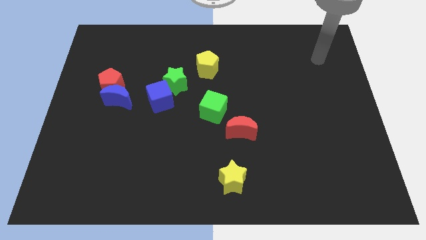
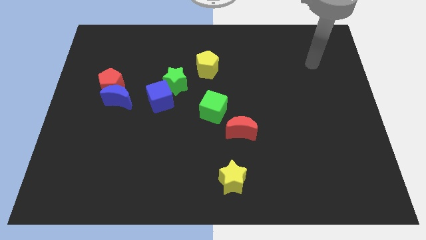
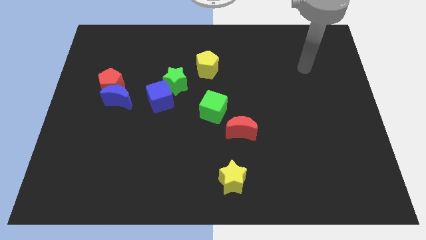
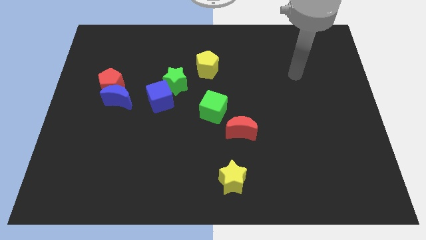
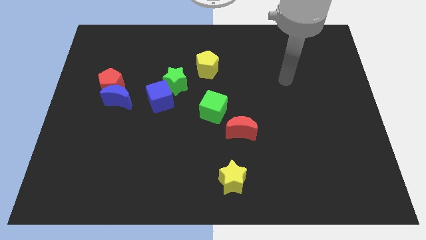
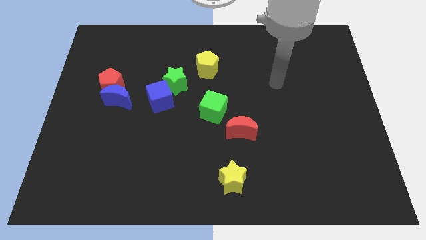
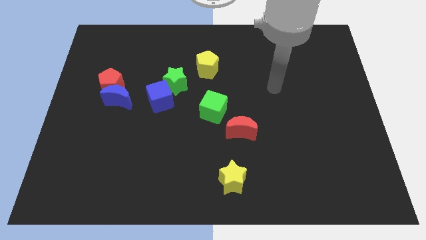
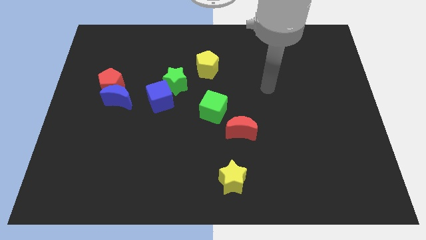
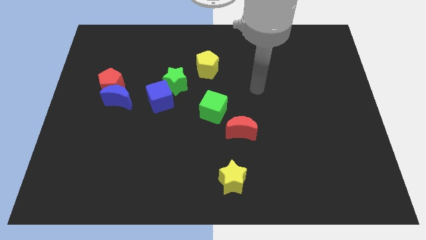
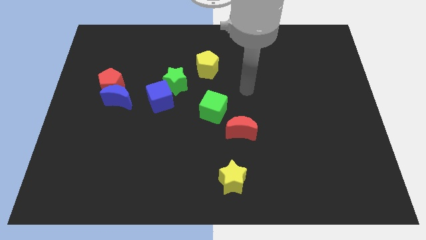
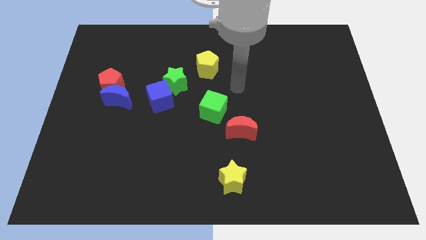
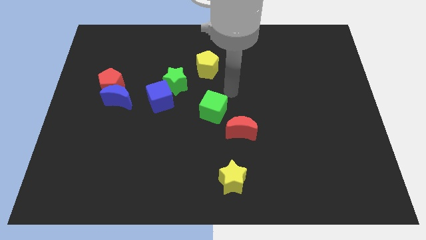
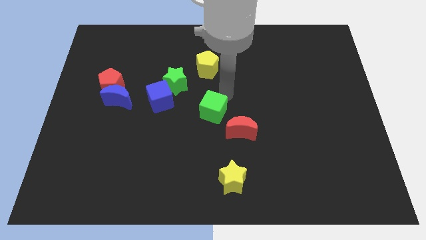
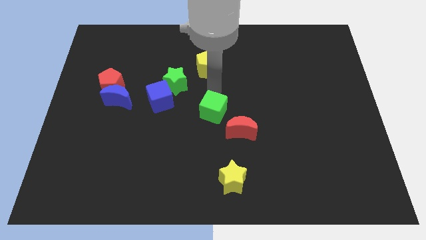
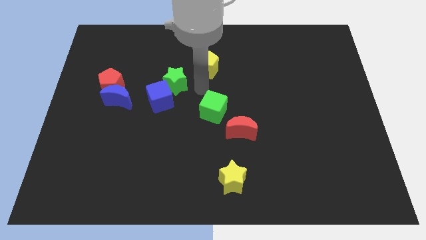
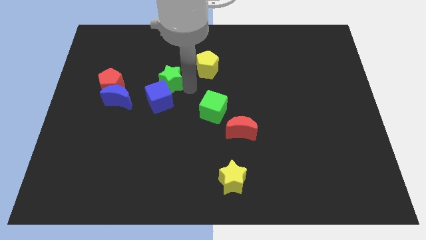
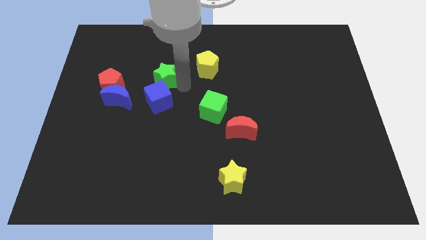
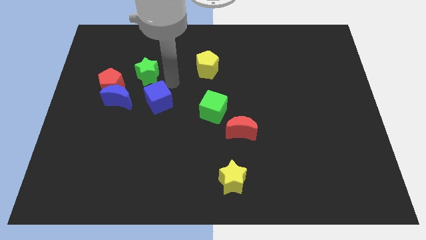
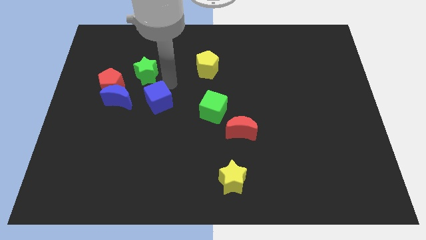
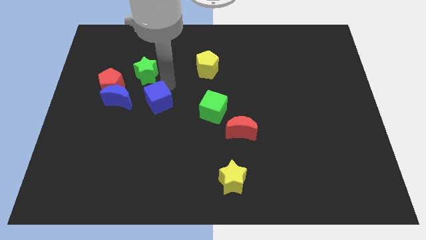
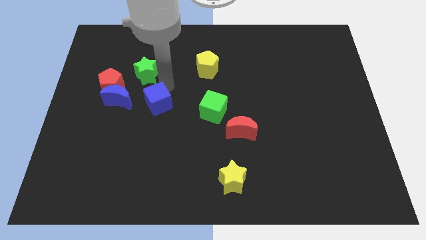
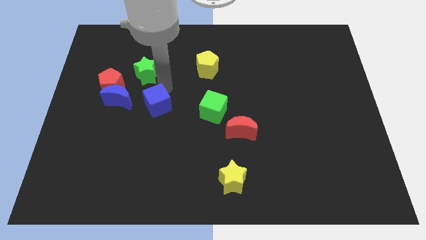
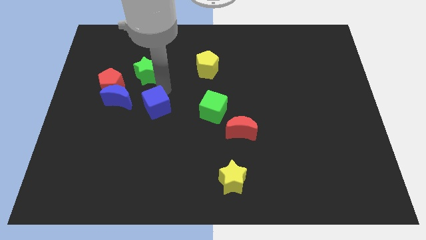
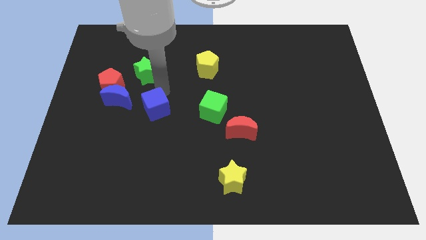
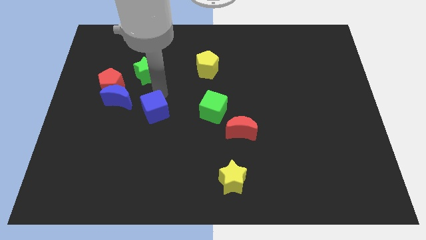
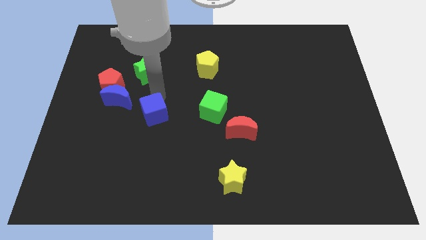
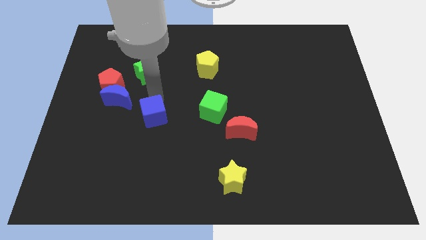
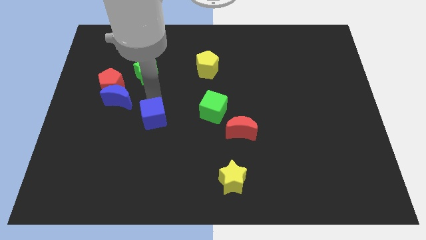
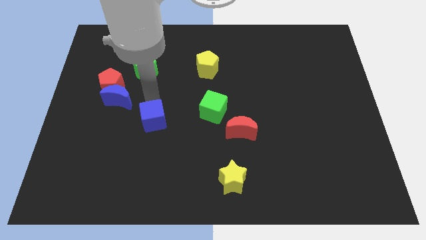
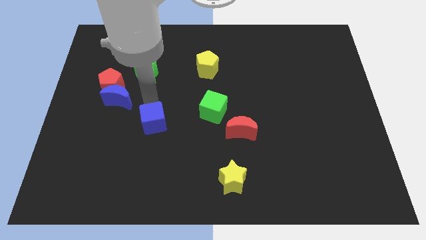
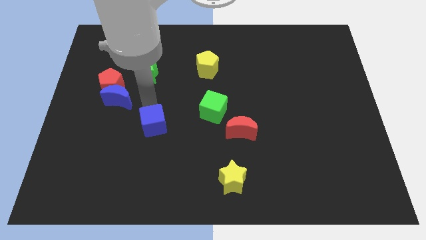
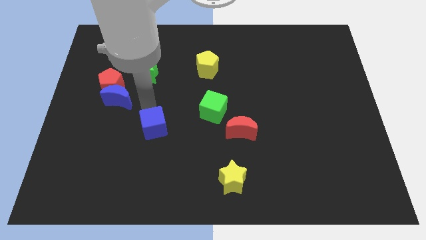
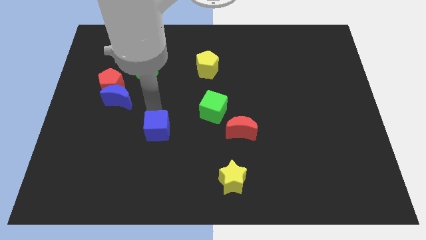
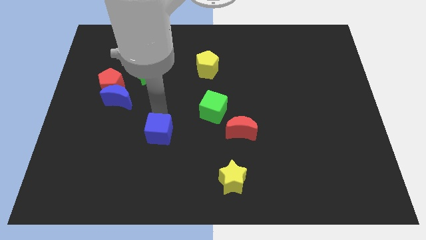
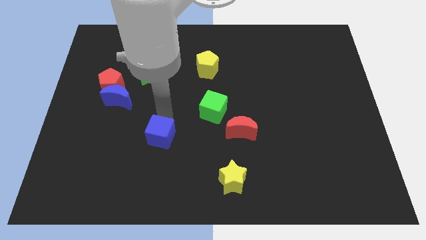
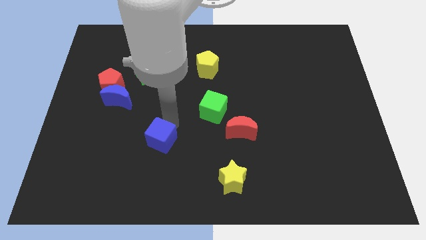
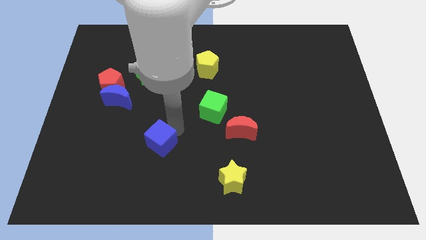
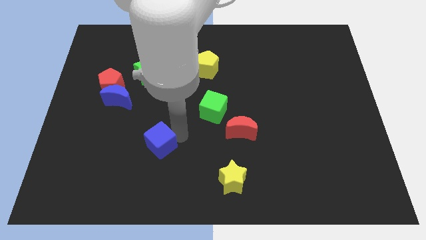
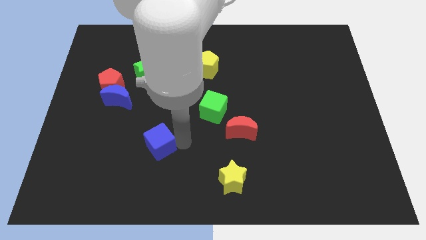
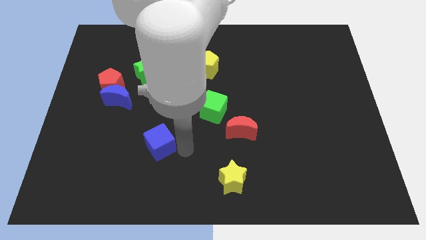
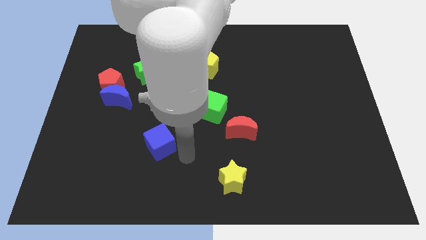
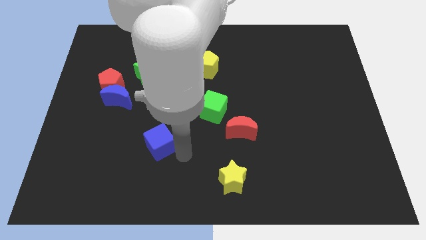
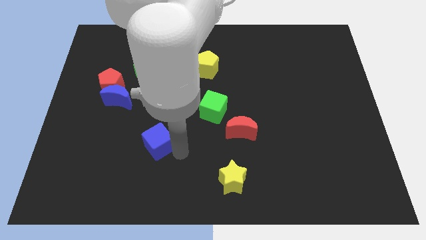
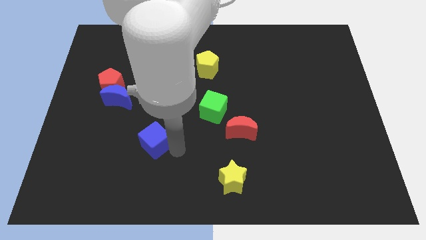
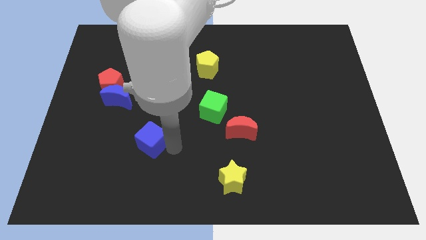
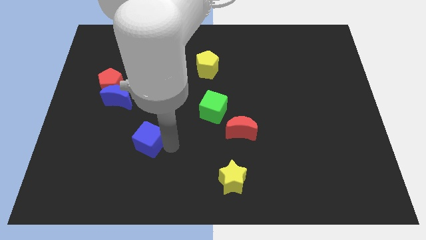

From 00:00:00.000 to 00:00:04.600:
slightly move the blue cube downwards and to the left diagonally

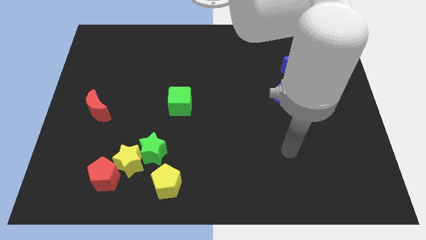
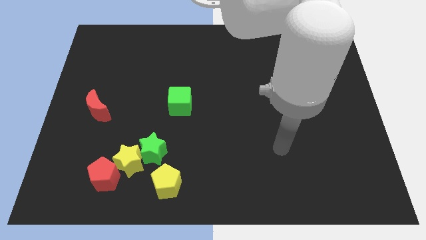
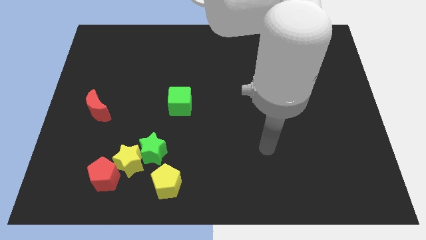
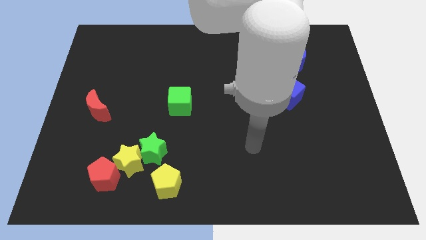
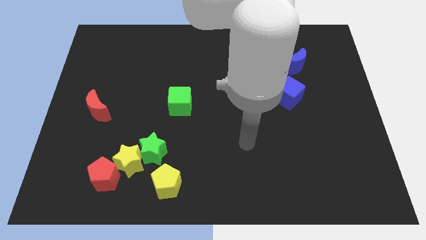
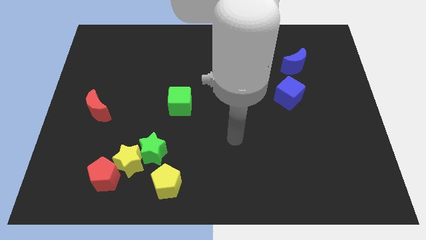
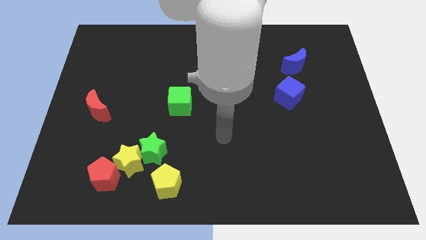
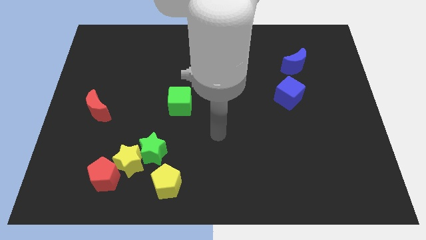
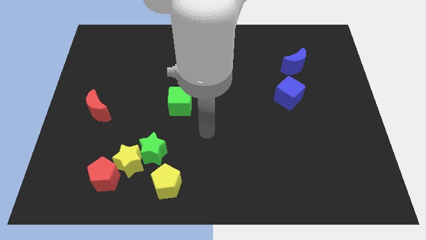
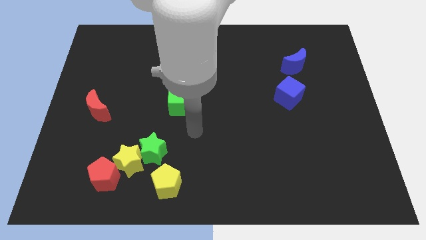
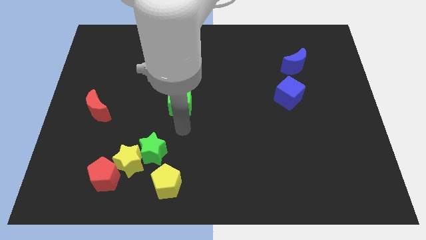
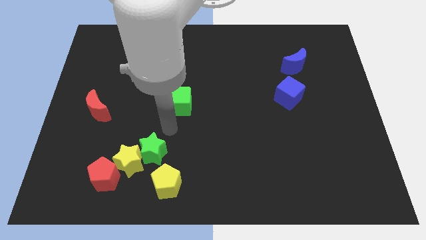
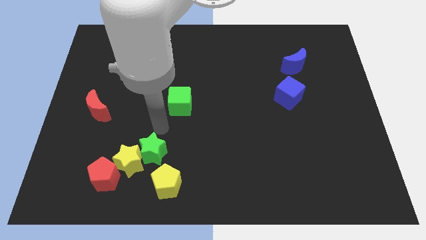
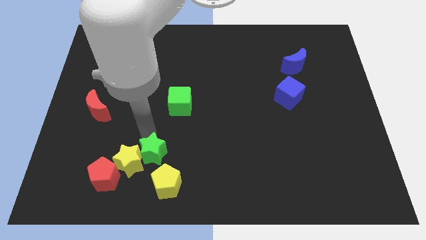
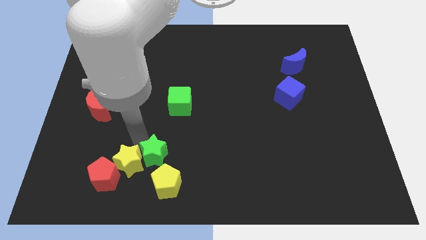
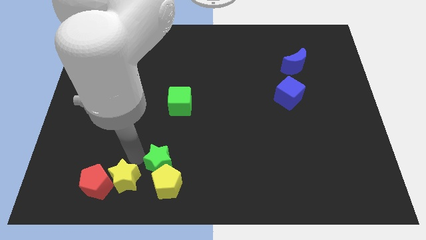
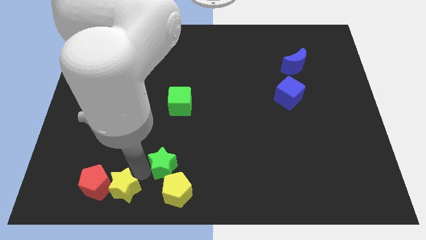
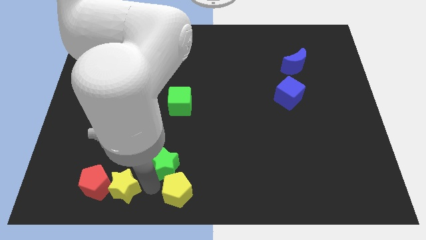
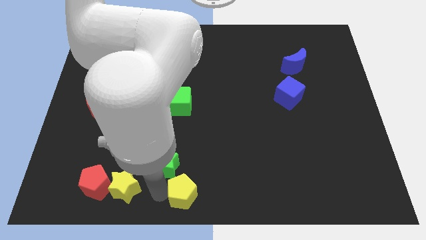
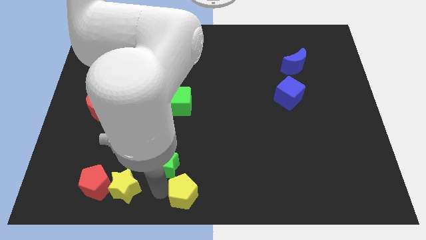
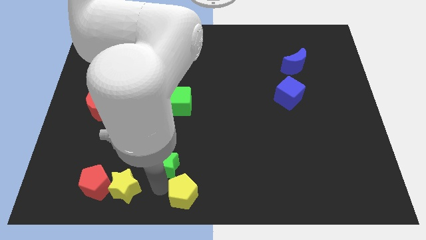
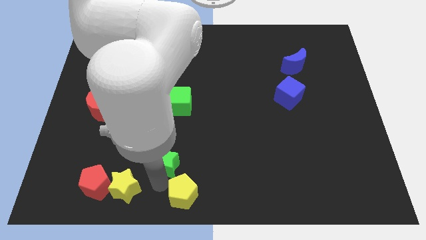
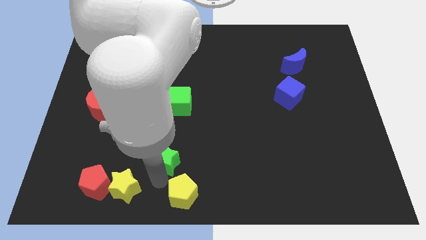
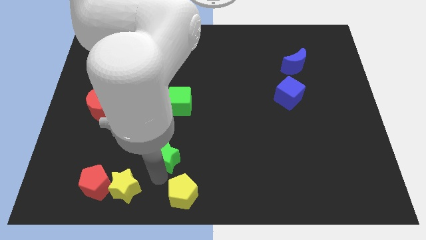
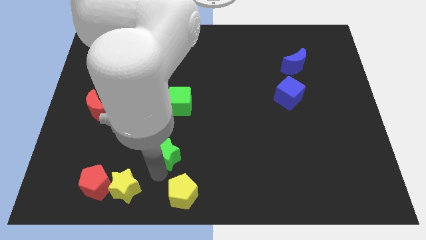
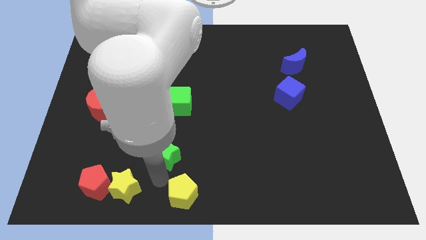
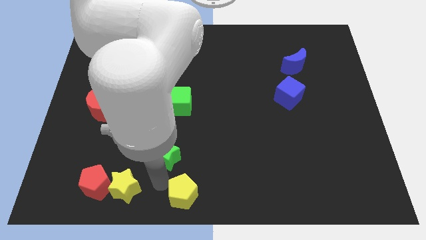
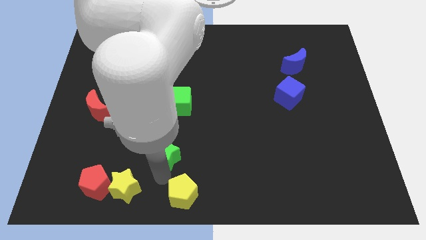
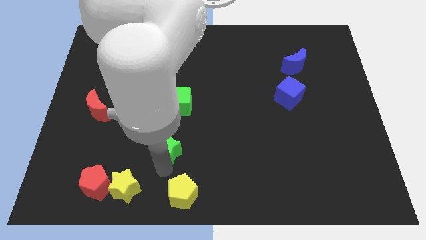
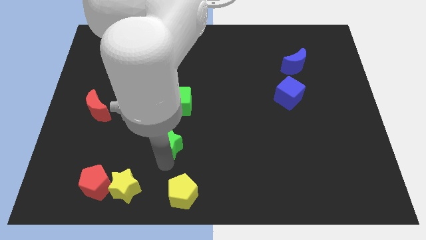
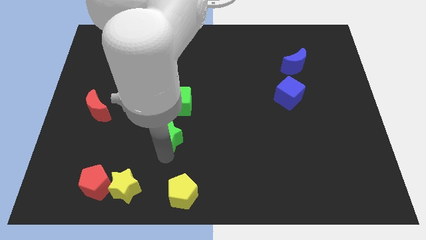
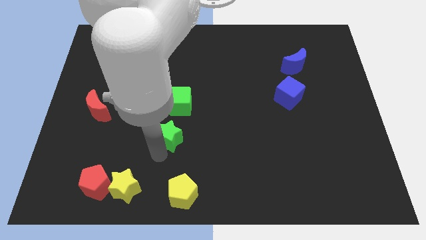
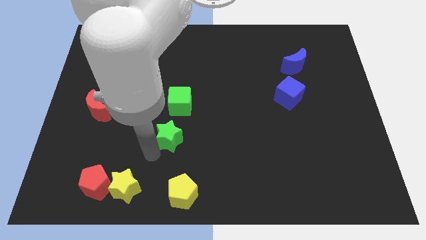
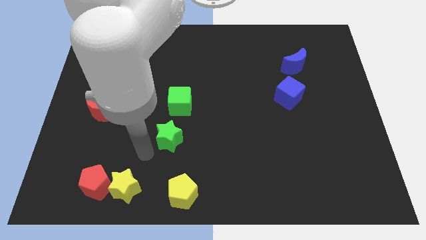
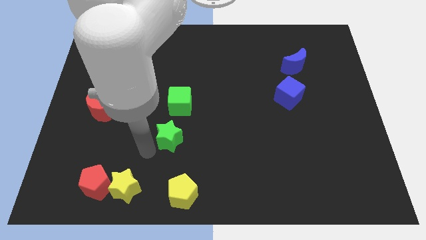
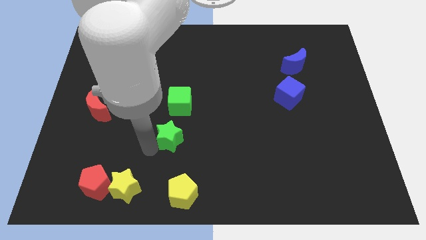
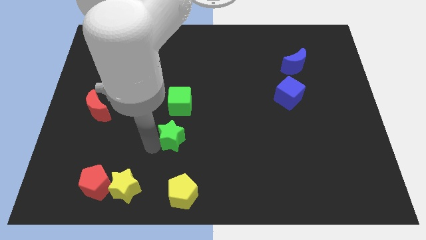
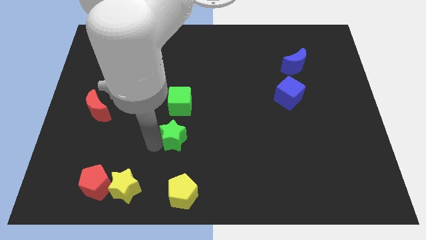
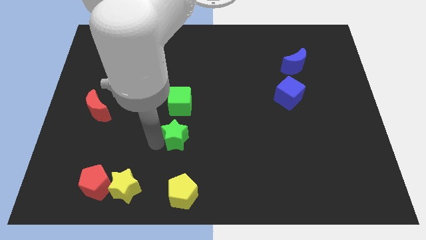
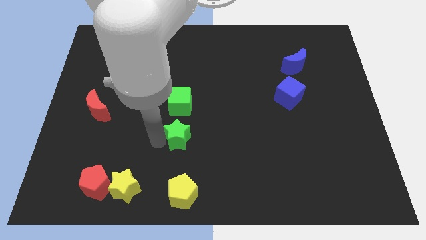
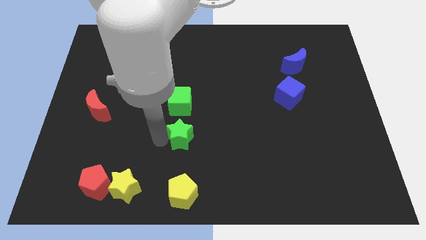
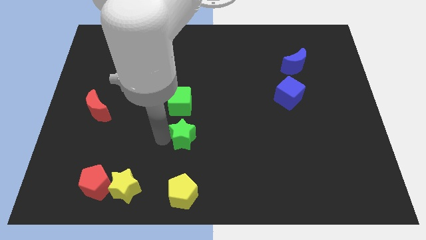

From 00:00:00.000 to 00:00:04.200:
move the green star up and right a little bit
